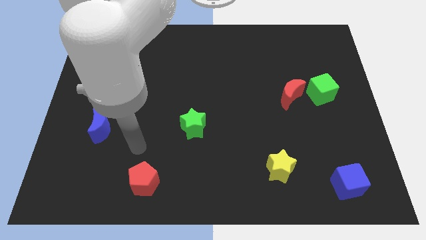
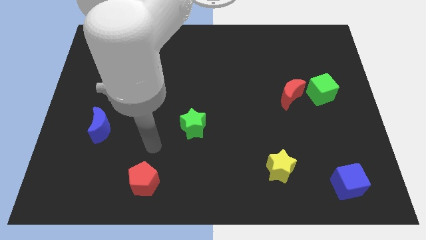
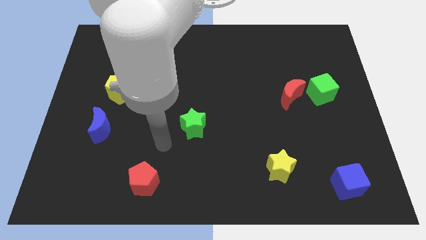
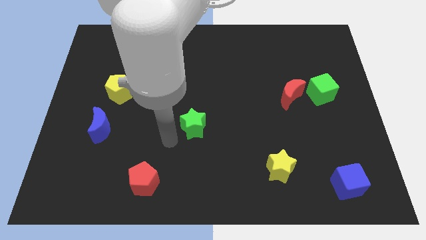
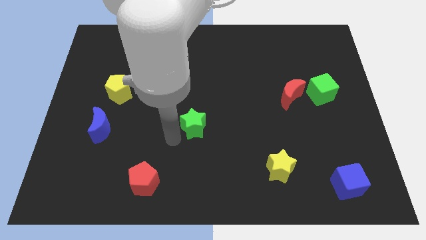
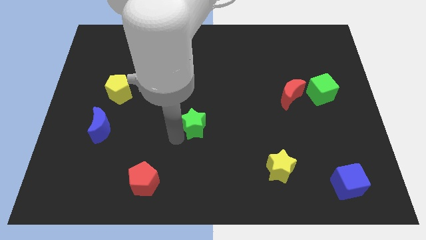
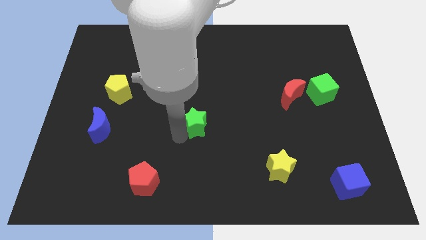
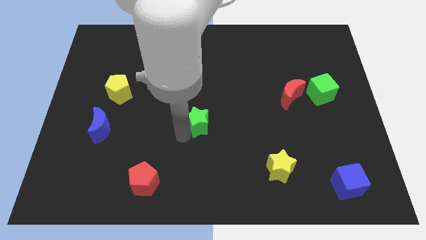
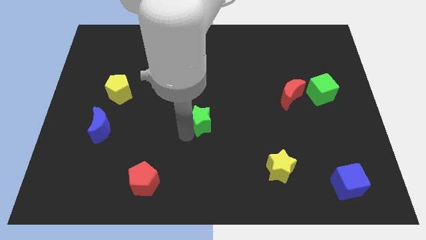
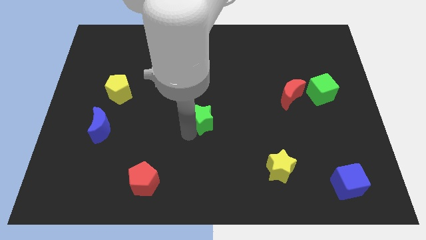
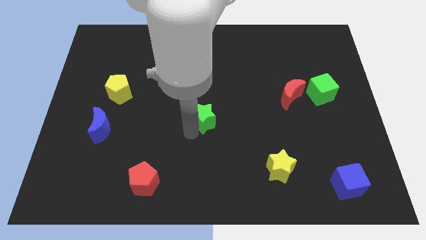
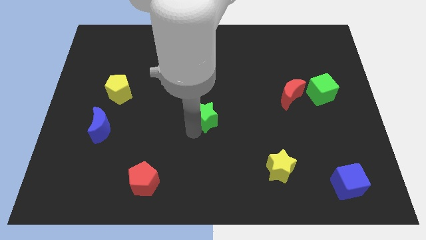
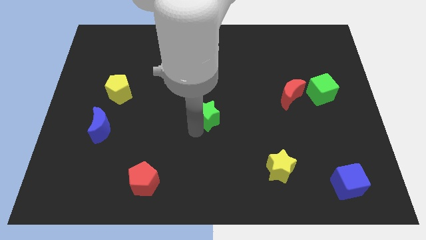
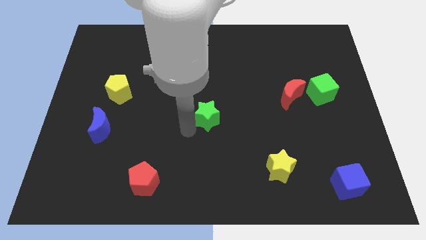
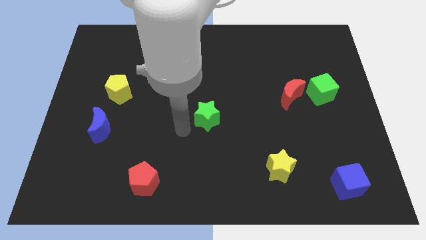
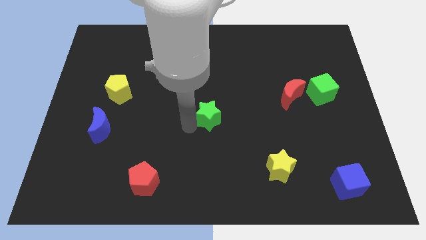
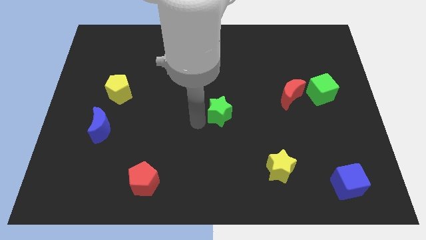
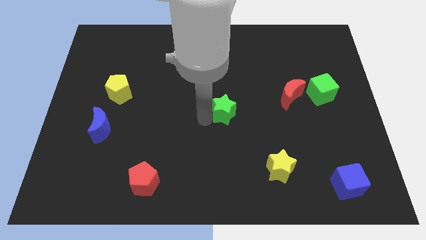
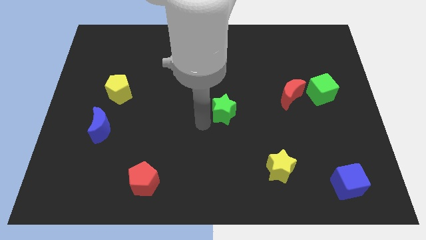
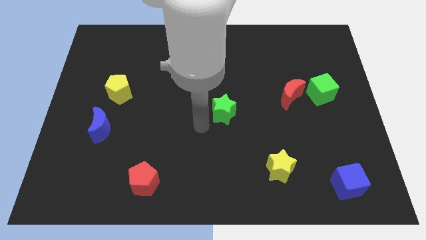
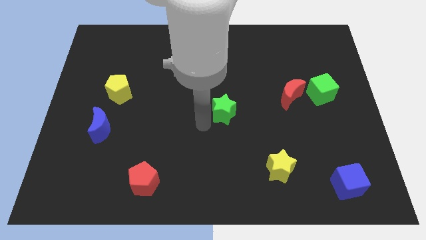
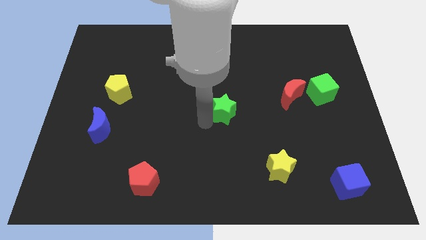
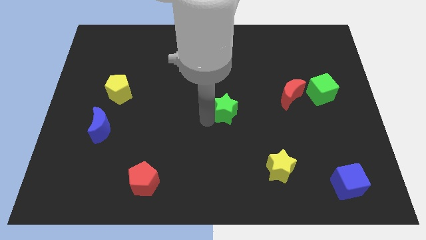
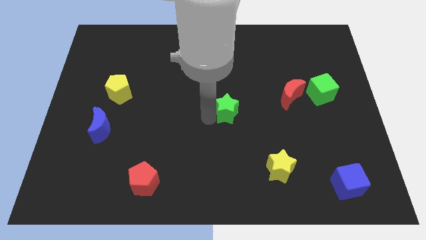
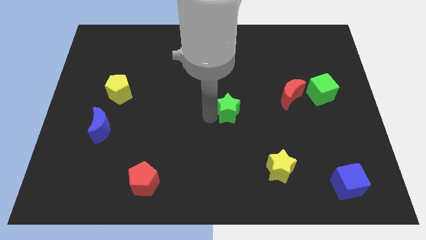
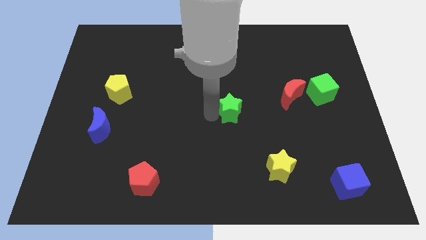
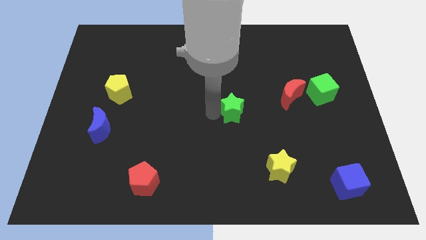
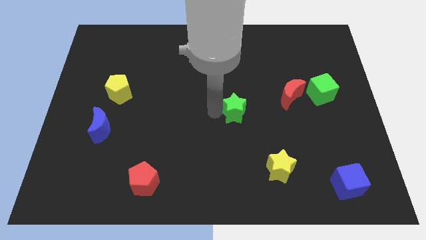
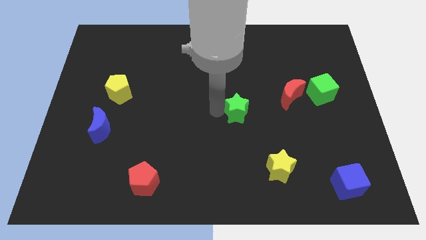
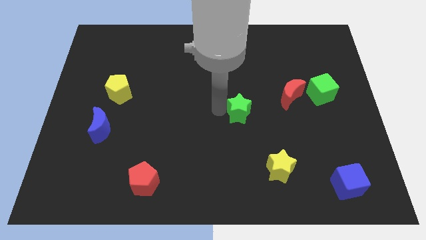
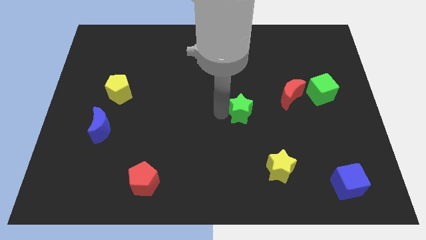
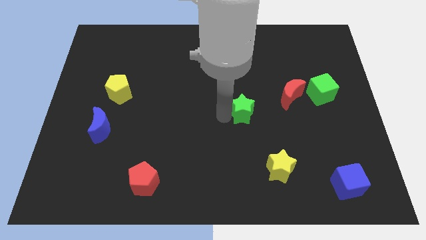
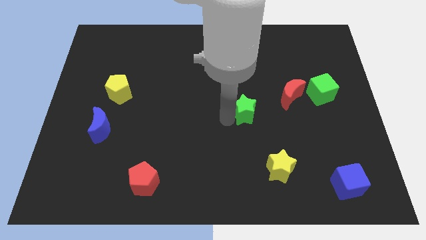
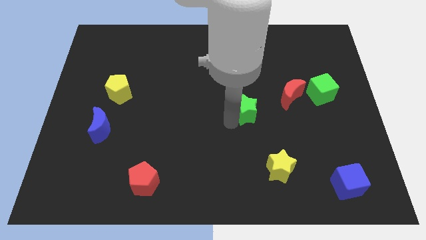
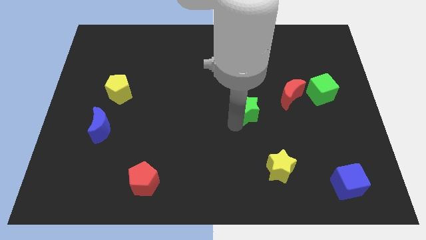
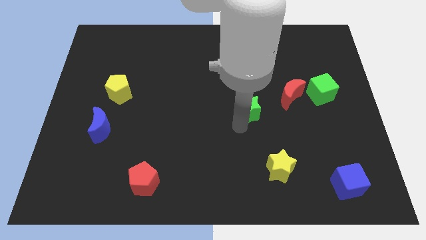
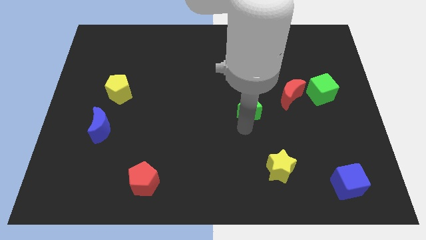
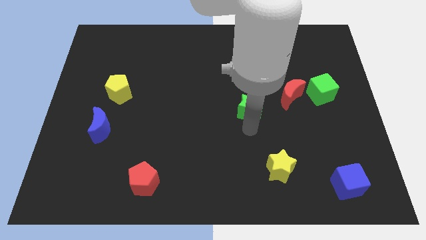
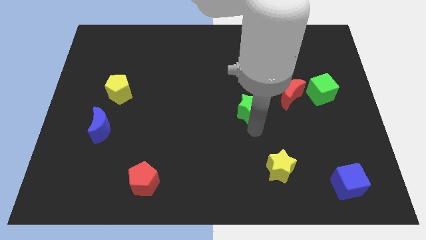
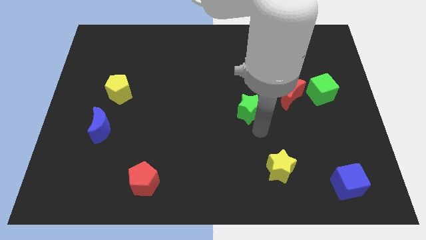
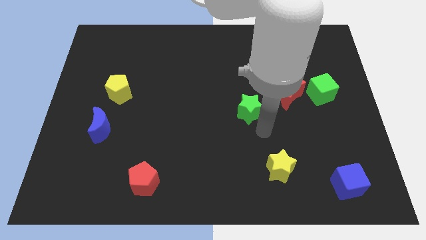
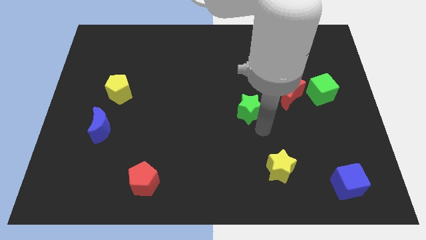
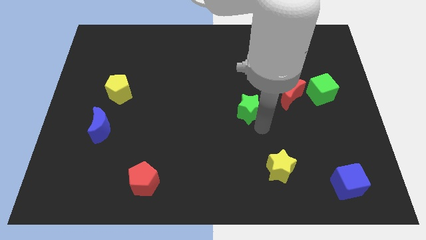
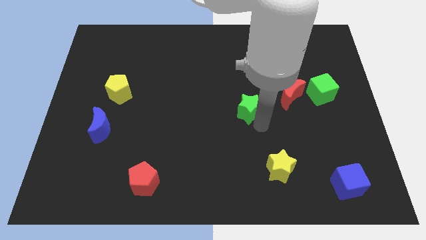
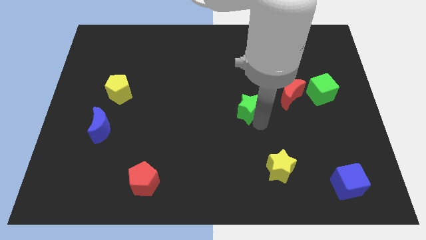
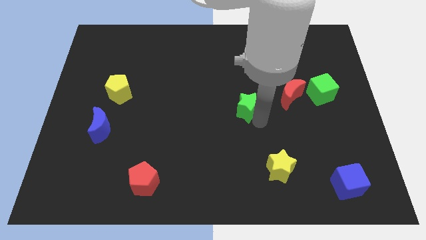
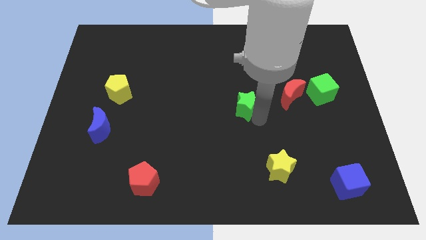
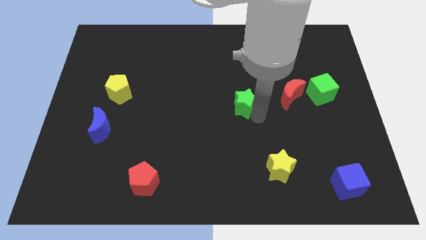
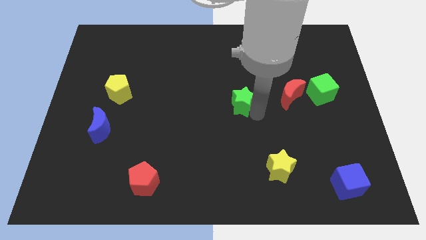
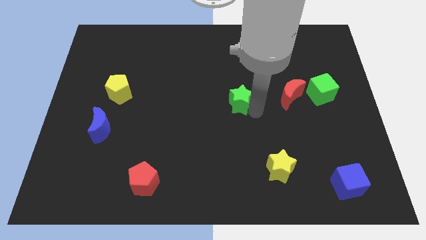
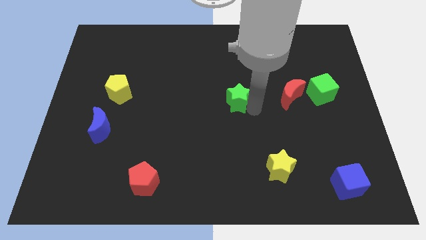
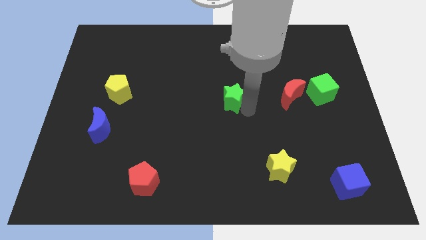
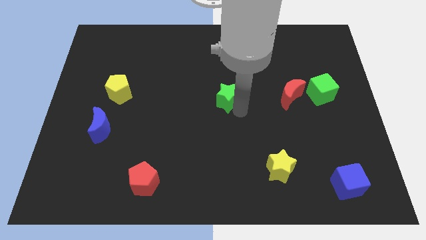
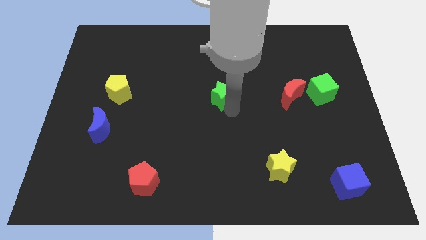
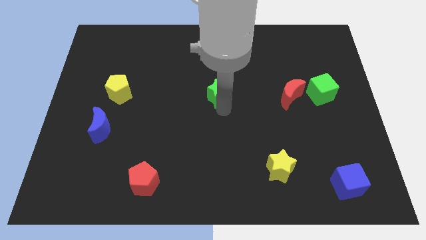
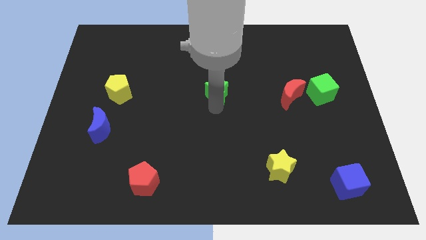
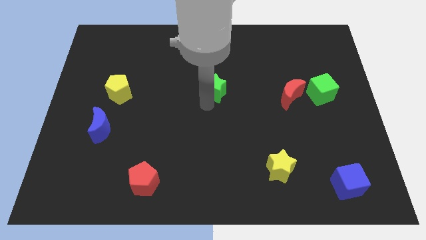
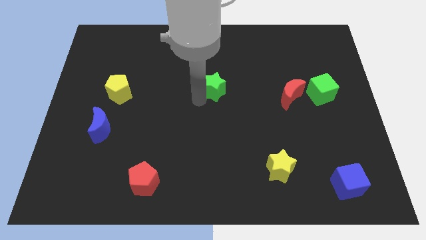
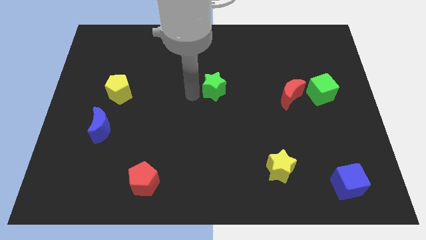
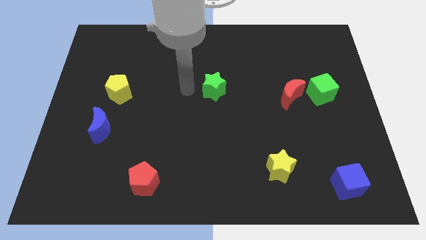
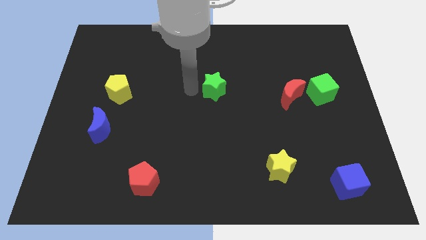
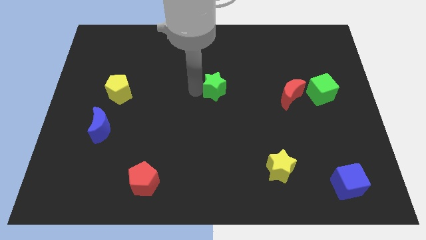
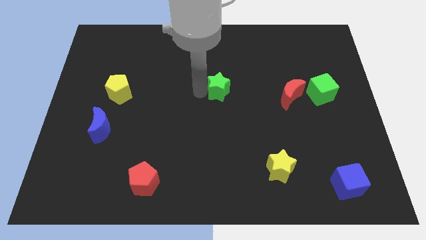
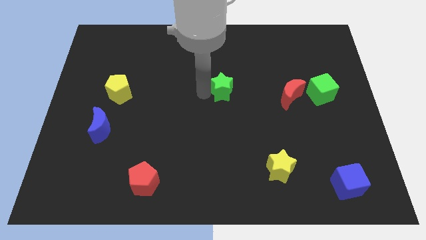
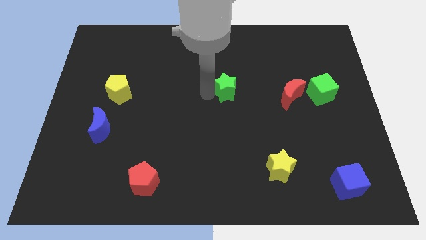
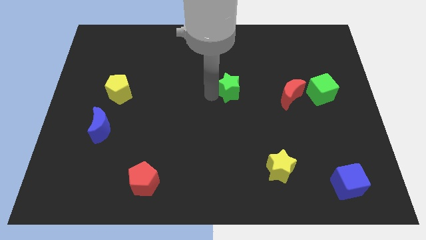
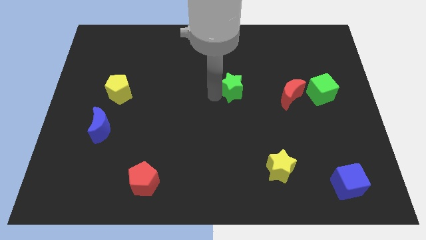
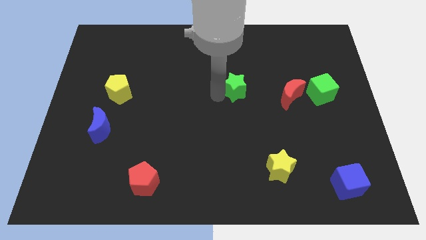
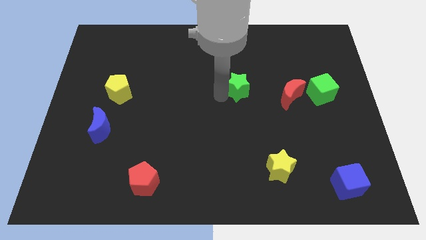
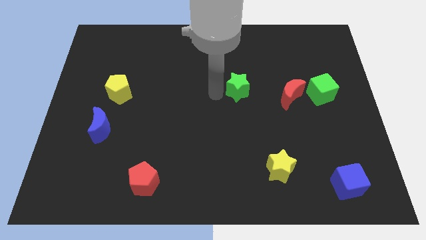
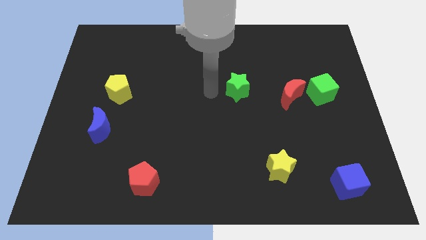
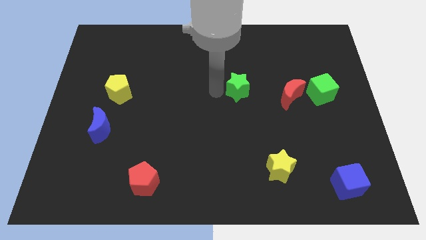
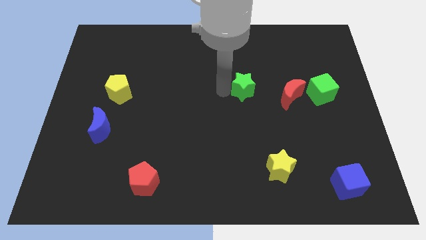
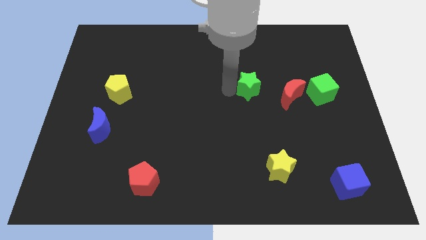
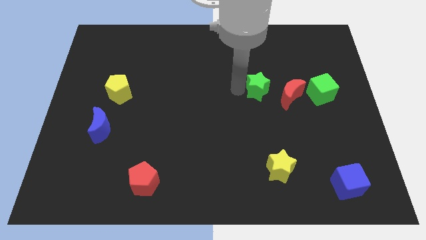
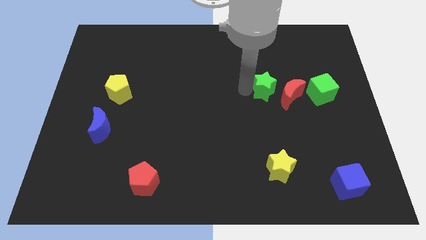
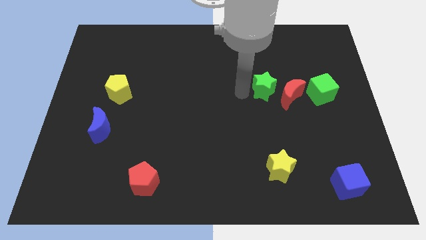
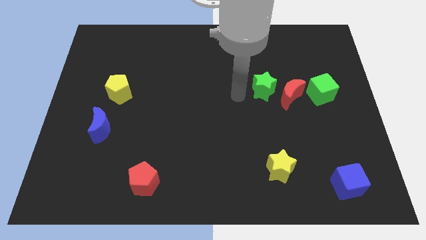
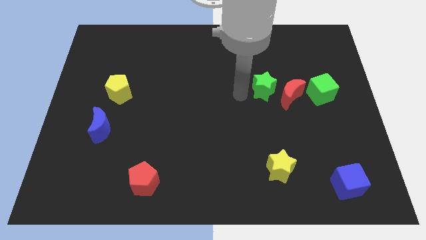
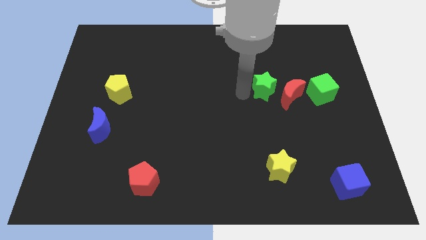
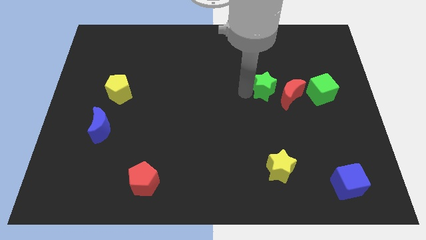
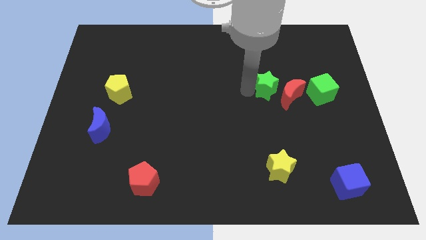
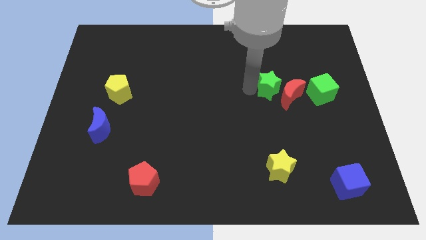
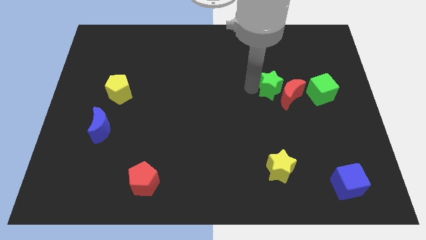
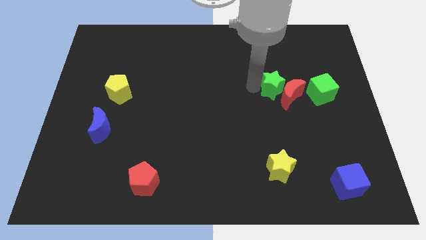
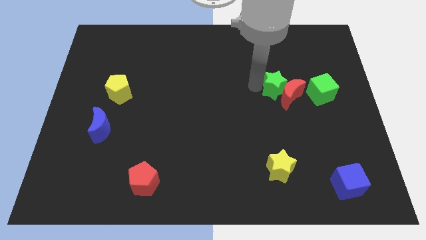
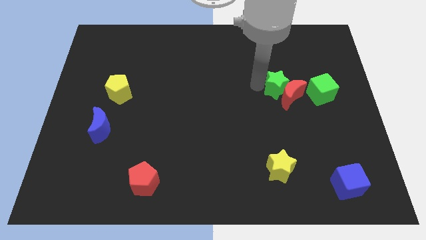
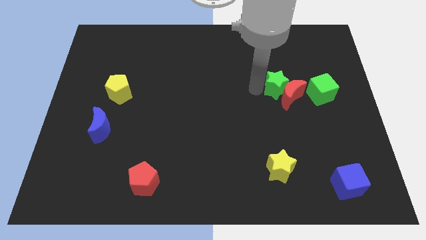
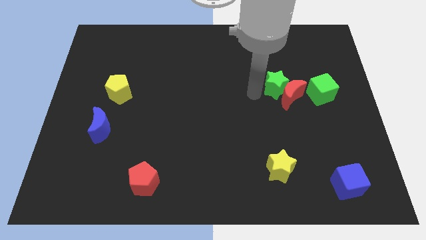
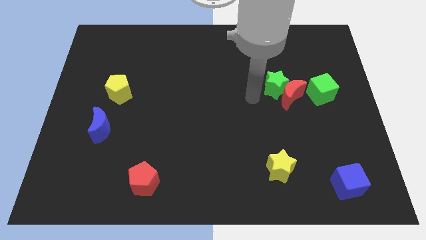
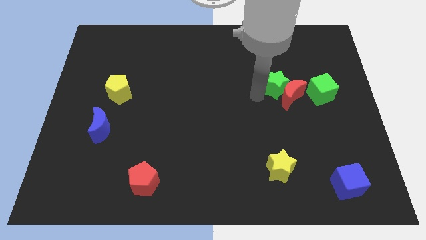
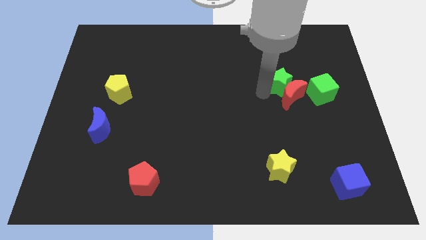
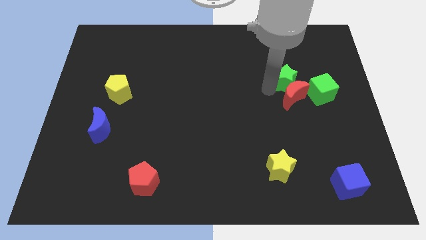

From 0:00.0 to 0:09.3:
move the green star to the top left of the green cube
